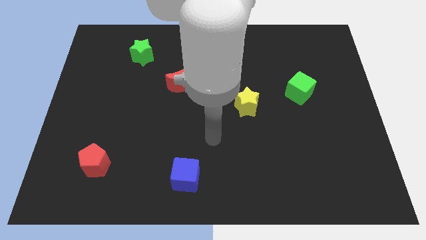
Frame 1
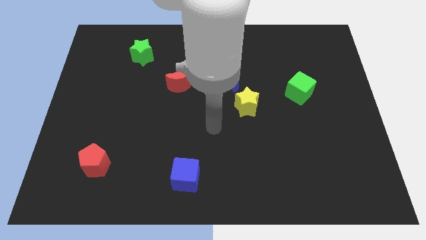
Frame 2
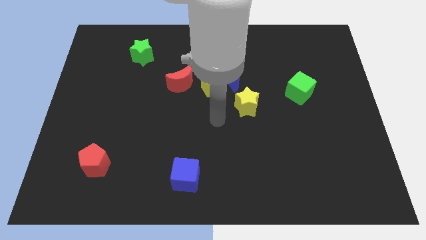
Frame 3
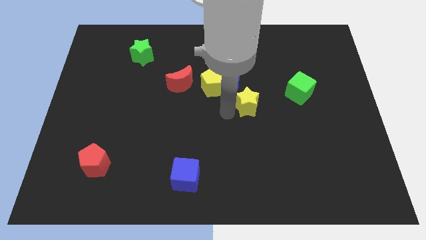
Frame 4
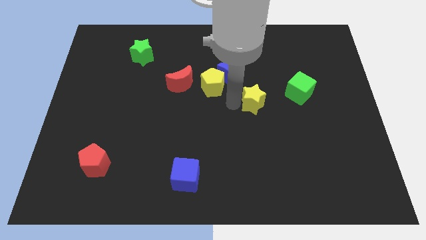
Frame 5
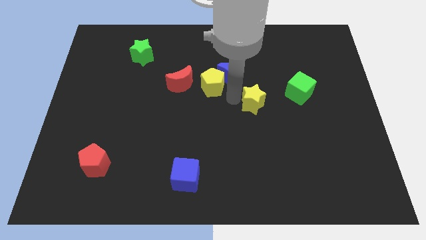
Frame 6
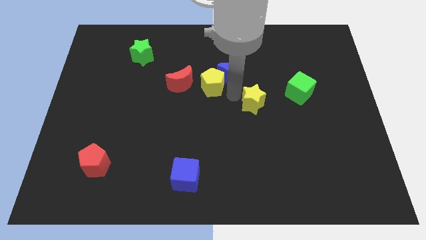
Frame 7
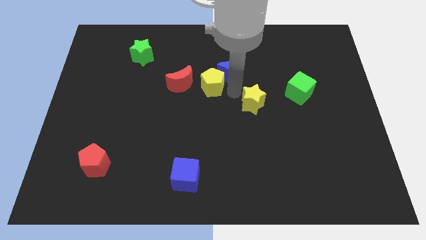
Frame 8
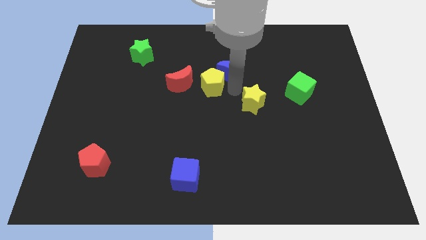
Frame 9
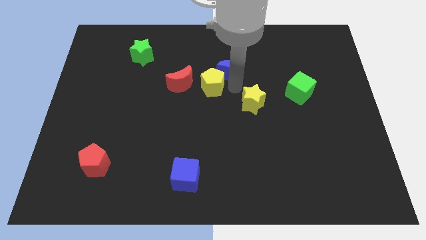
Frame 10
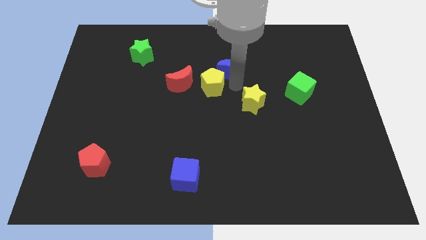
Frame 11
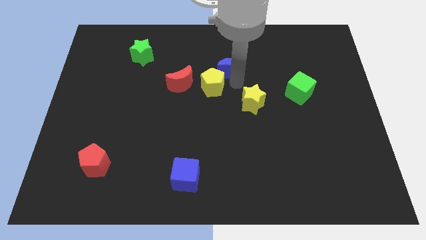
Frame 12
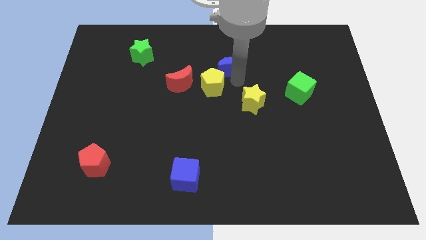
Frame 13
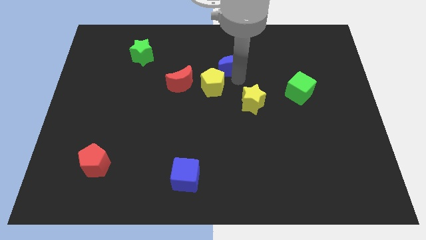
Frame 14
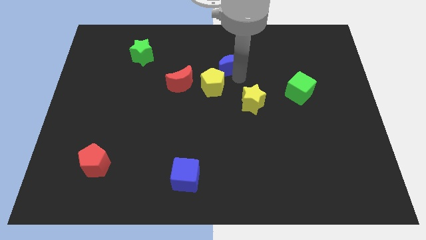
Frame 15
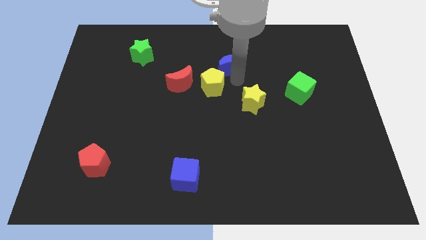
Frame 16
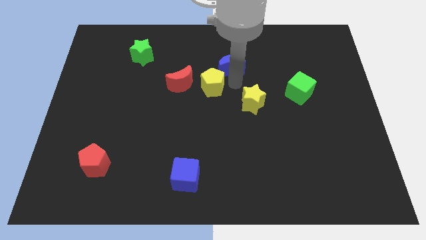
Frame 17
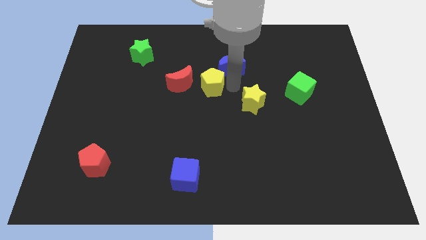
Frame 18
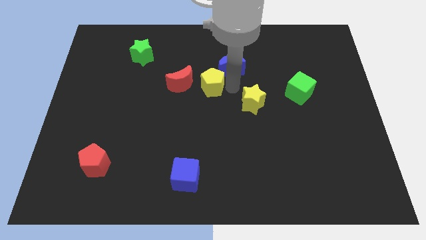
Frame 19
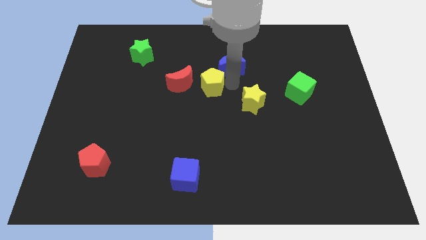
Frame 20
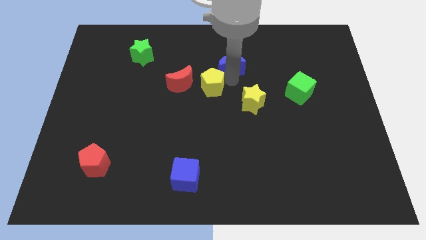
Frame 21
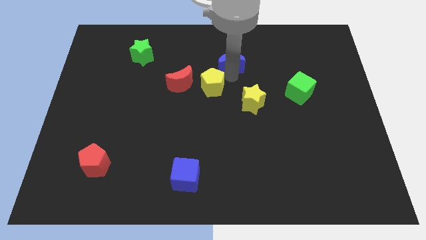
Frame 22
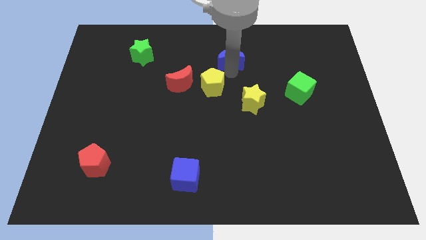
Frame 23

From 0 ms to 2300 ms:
separate the blue moon from the yellow pentagon and yellow star

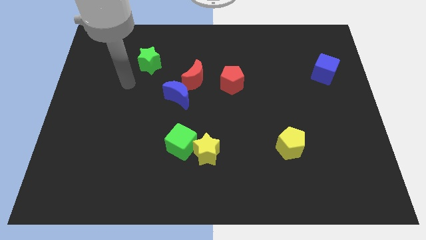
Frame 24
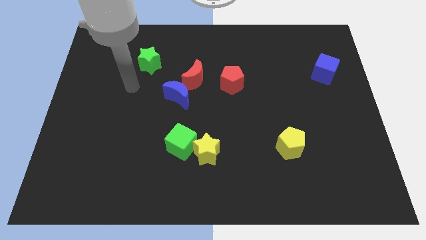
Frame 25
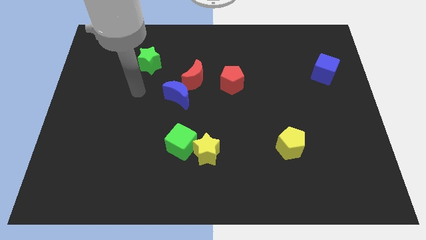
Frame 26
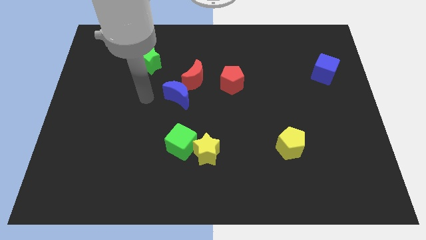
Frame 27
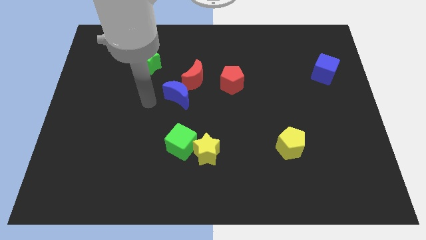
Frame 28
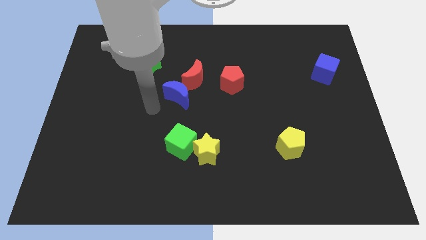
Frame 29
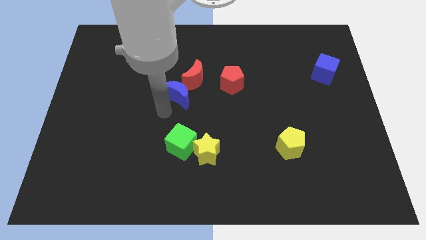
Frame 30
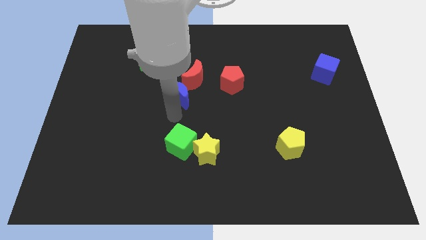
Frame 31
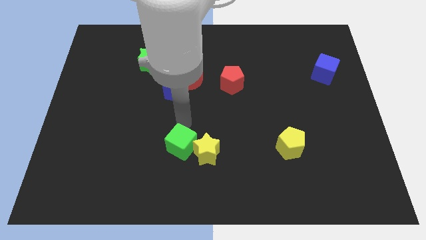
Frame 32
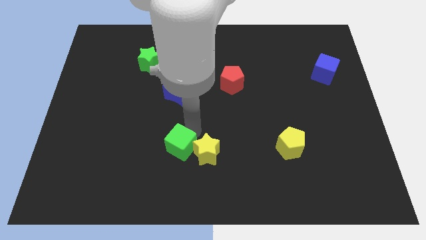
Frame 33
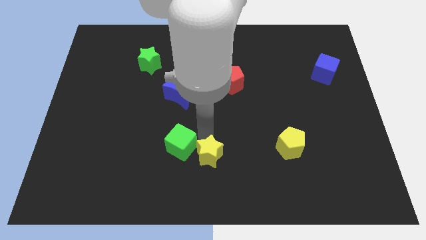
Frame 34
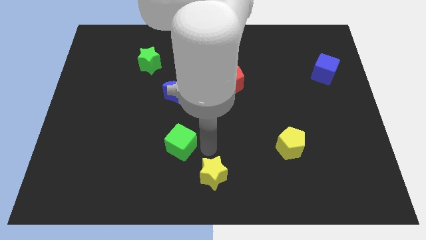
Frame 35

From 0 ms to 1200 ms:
move the green cube away from the yellow star

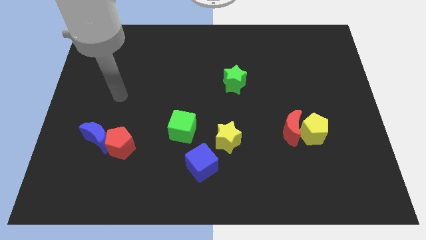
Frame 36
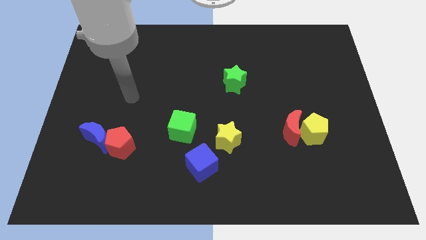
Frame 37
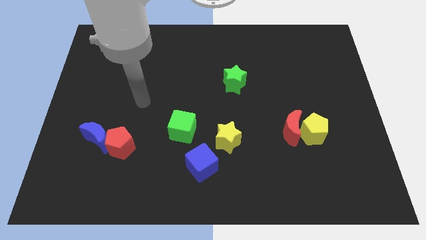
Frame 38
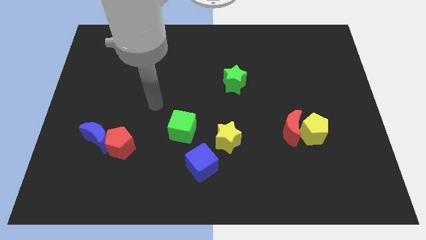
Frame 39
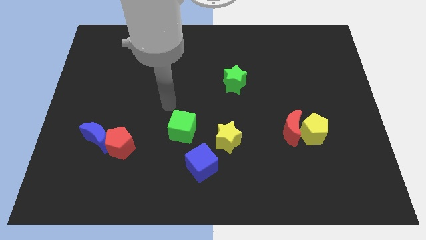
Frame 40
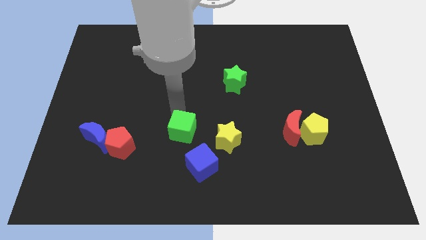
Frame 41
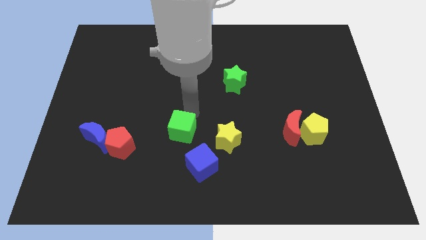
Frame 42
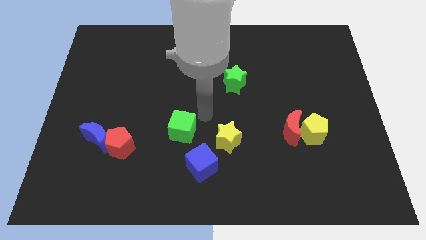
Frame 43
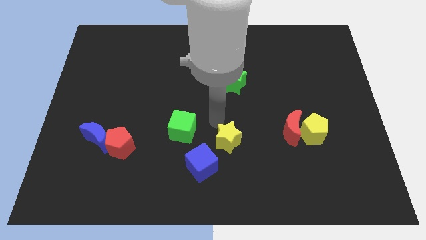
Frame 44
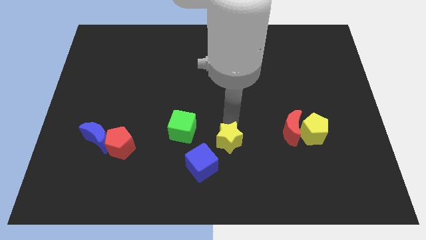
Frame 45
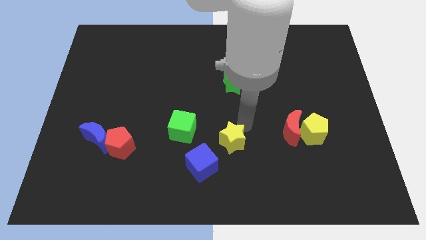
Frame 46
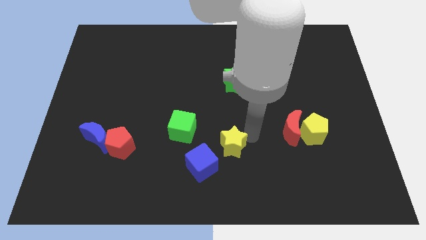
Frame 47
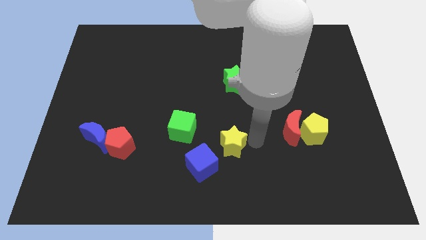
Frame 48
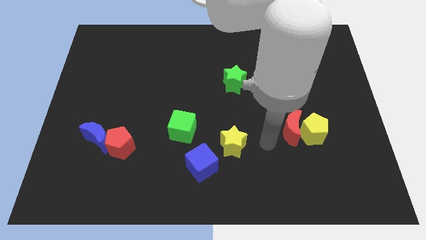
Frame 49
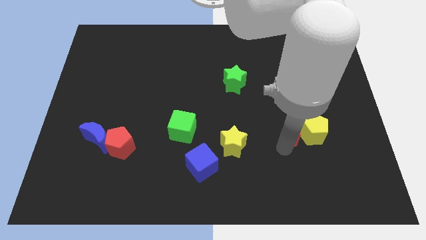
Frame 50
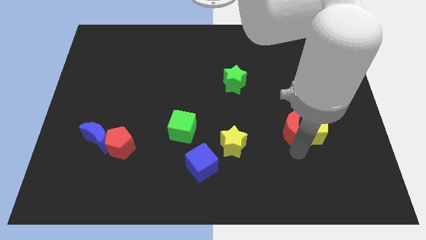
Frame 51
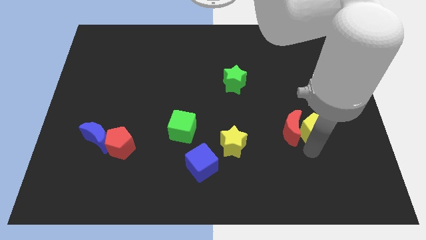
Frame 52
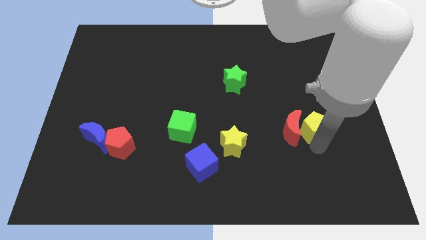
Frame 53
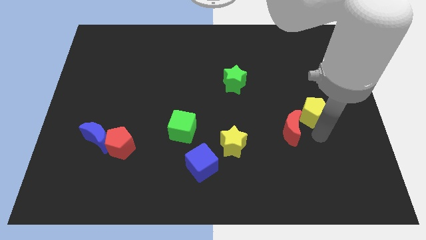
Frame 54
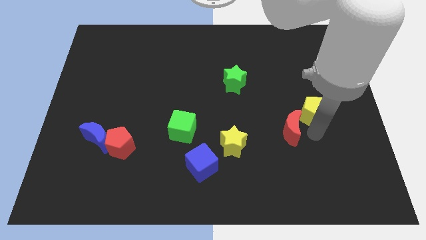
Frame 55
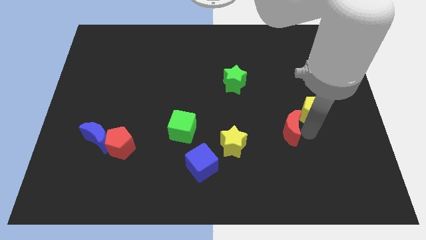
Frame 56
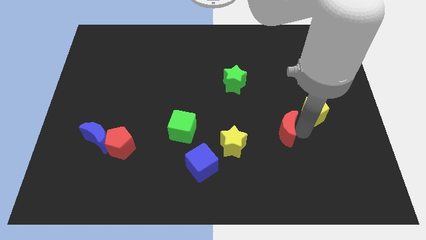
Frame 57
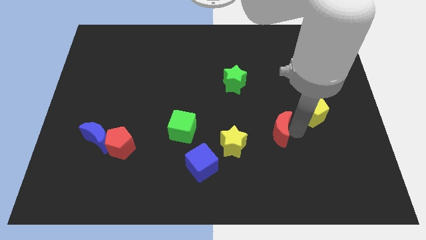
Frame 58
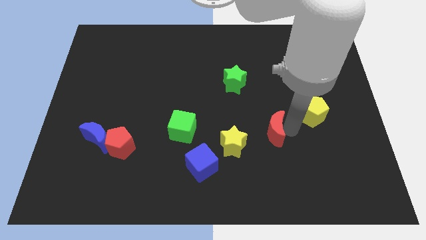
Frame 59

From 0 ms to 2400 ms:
separate the red moon from the yellow pentagon

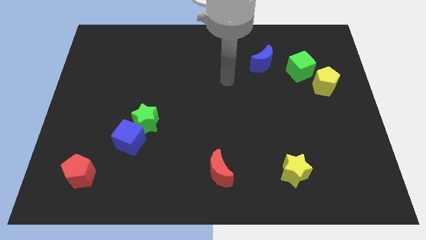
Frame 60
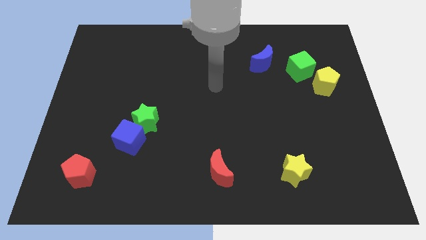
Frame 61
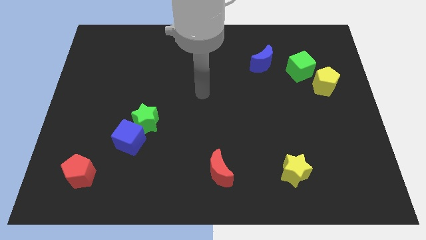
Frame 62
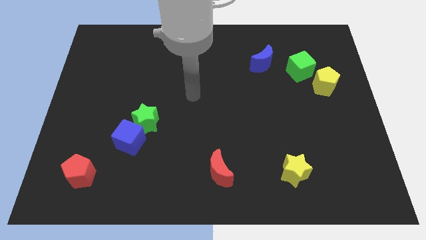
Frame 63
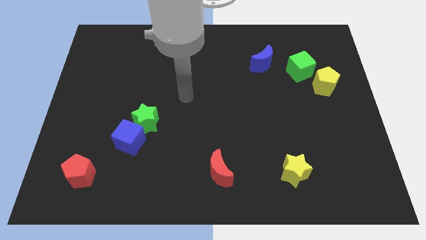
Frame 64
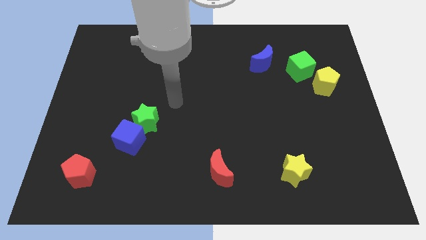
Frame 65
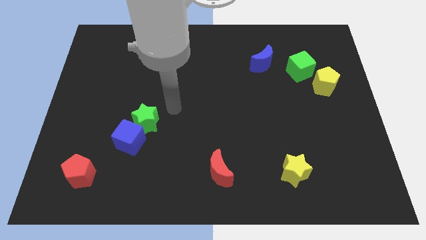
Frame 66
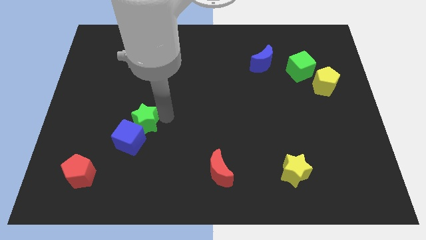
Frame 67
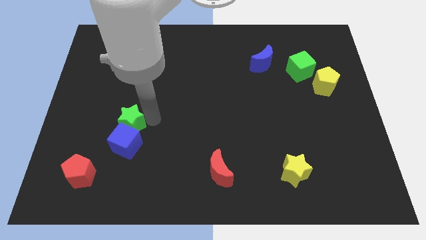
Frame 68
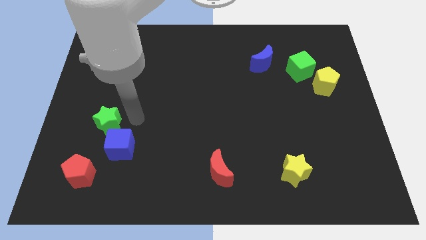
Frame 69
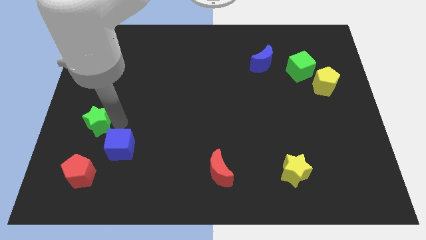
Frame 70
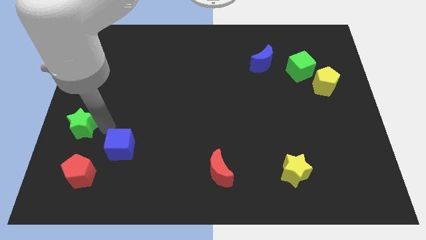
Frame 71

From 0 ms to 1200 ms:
separate the blue cube from the green star

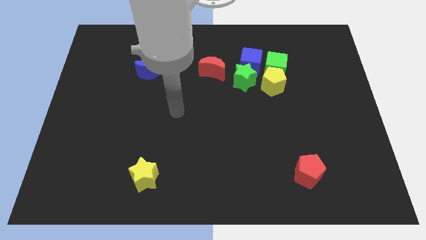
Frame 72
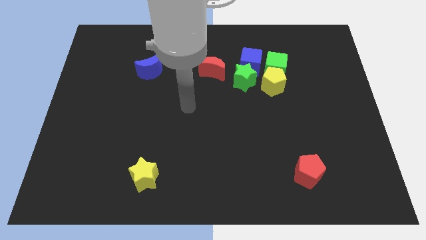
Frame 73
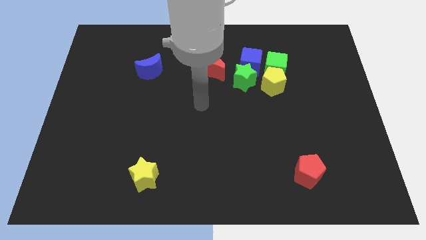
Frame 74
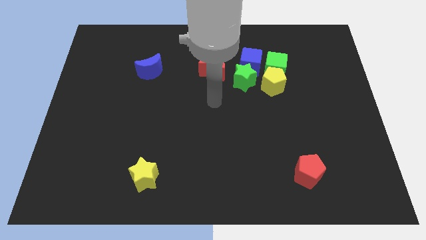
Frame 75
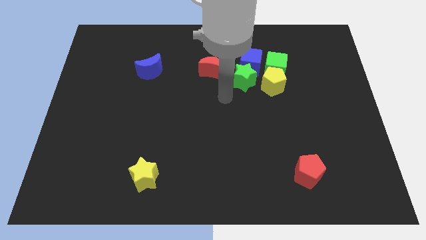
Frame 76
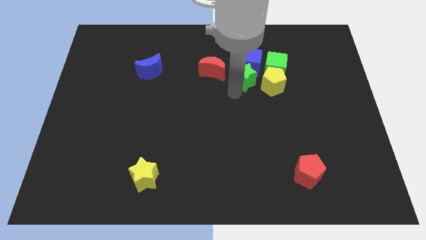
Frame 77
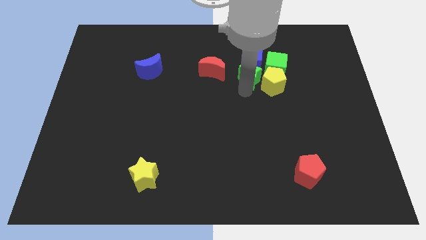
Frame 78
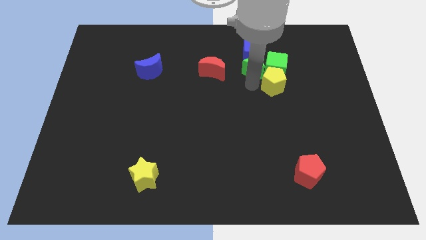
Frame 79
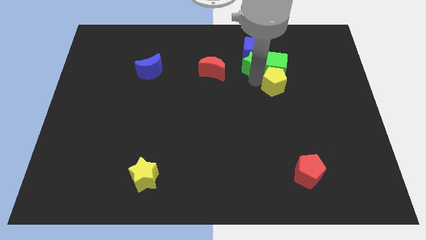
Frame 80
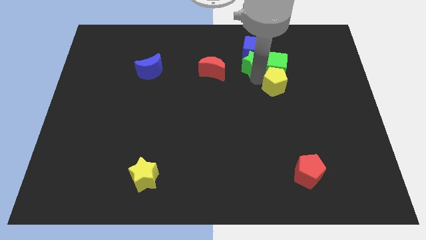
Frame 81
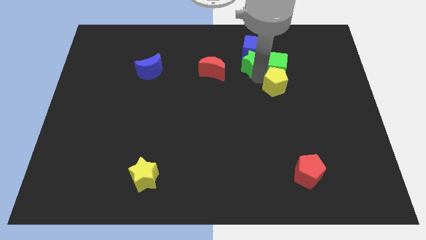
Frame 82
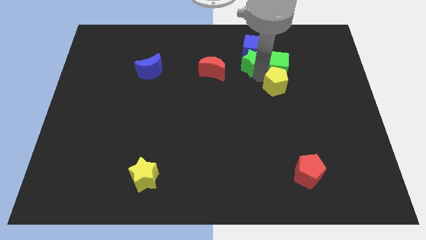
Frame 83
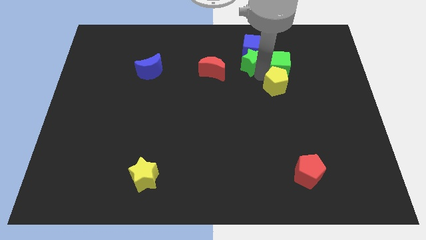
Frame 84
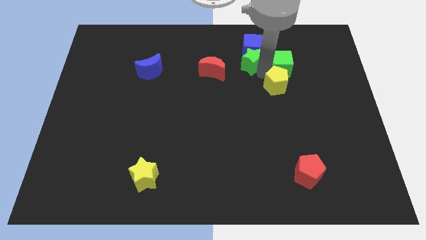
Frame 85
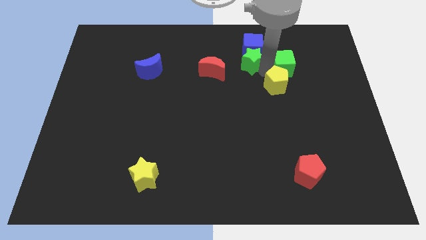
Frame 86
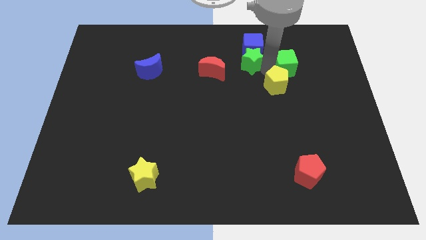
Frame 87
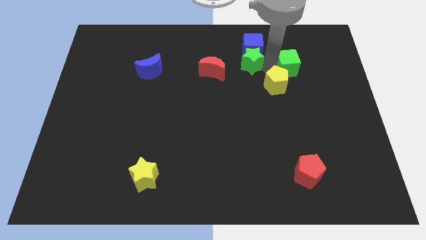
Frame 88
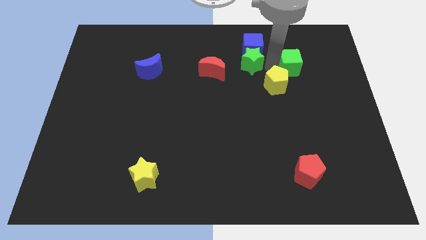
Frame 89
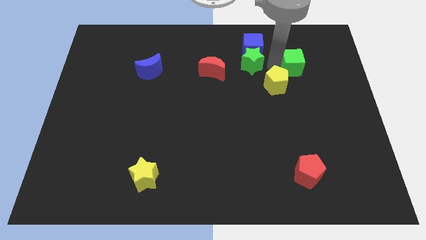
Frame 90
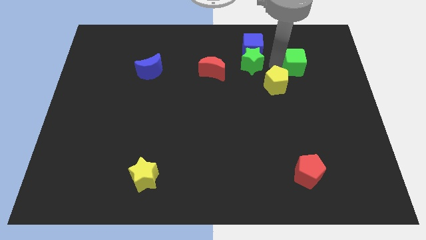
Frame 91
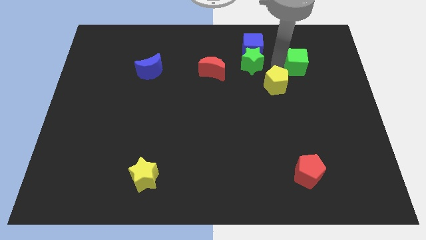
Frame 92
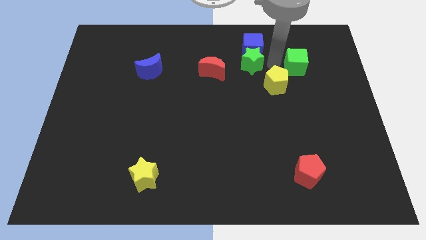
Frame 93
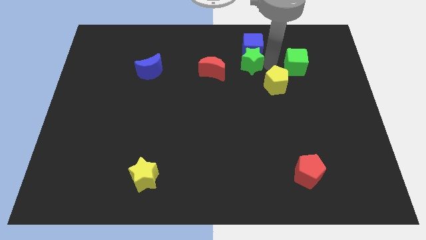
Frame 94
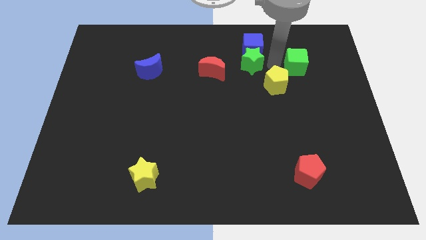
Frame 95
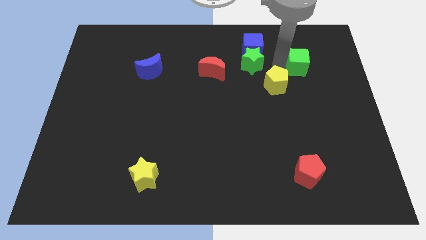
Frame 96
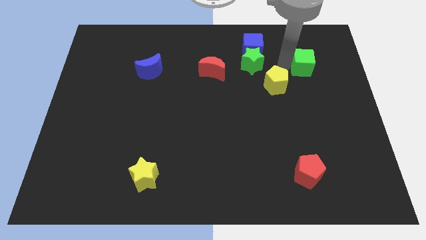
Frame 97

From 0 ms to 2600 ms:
pull the green cube apart from the yellow pentagon, blue cube, and green star
